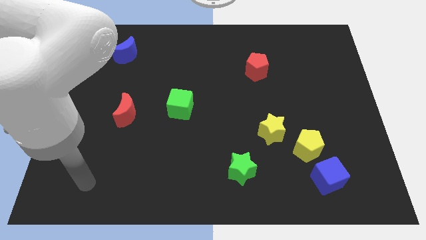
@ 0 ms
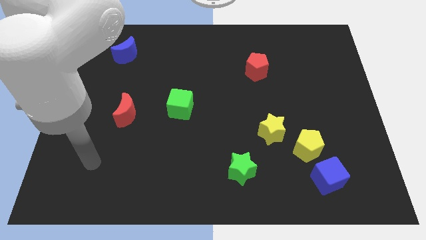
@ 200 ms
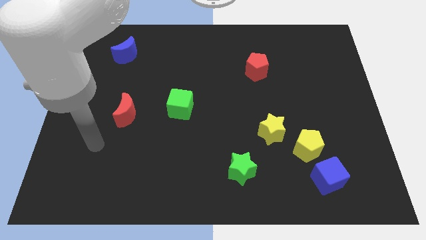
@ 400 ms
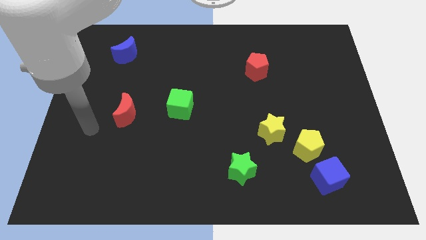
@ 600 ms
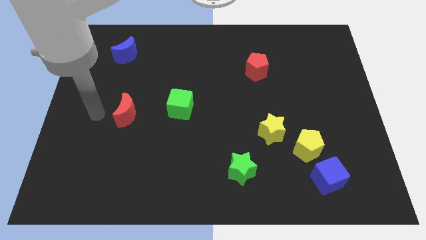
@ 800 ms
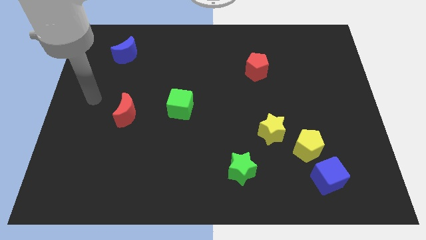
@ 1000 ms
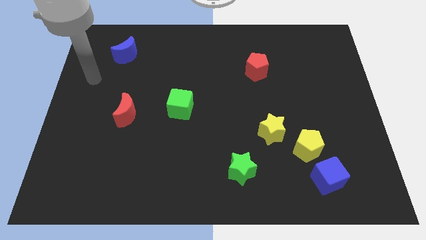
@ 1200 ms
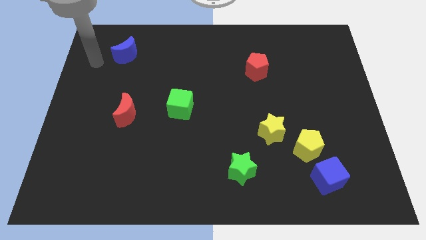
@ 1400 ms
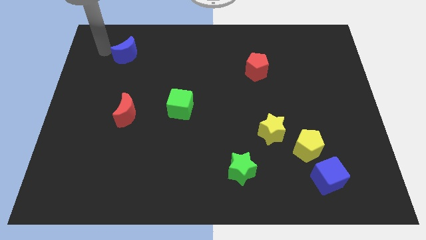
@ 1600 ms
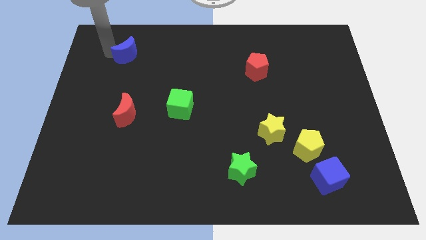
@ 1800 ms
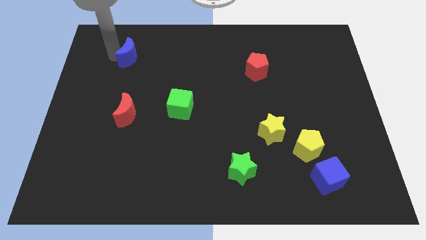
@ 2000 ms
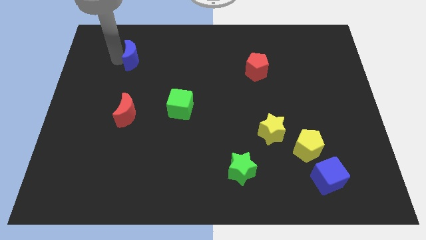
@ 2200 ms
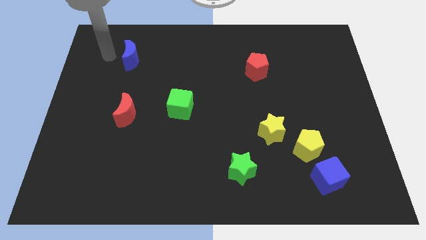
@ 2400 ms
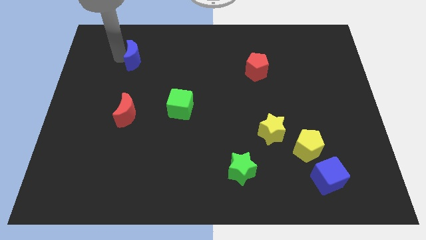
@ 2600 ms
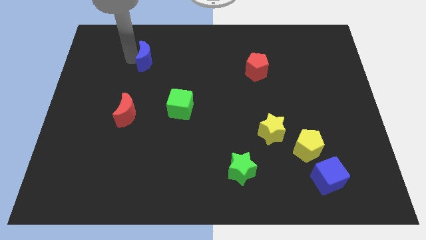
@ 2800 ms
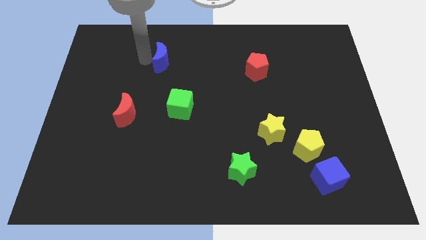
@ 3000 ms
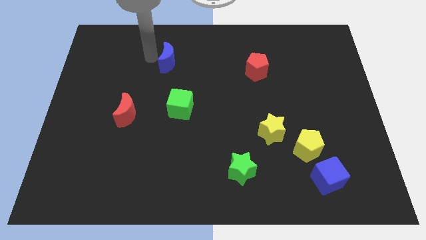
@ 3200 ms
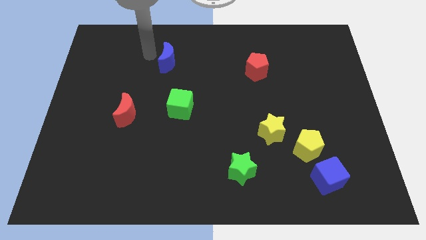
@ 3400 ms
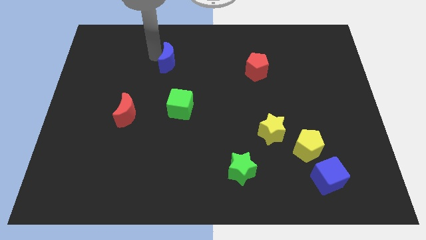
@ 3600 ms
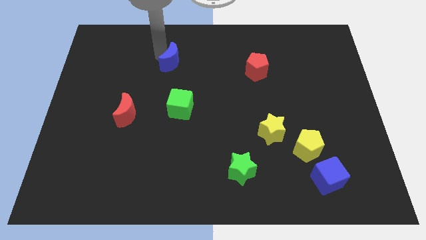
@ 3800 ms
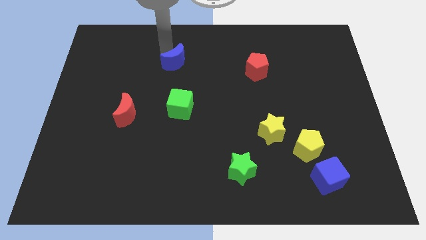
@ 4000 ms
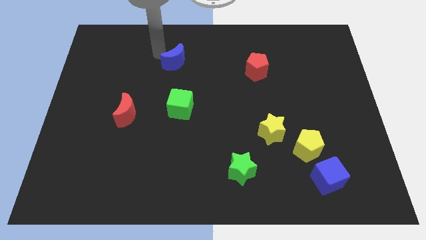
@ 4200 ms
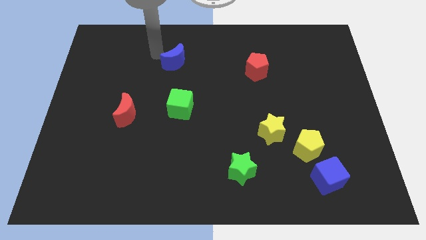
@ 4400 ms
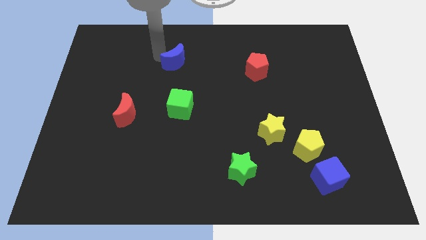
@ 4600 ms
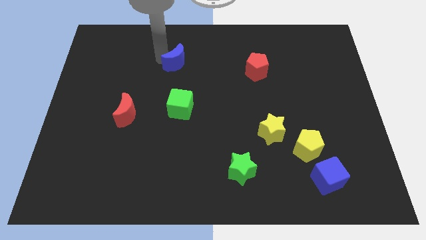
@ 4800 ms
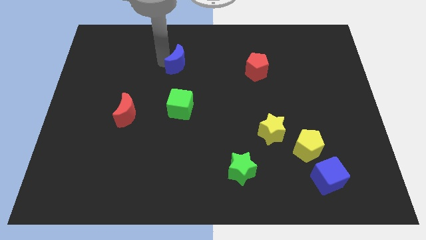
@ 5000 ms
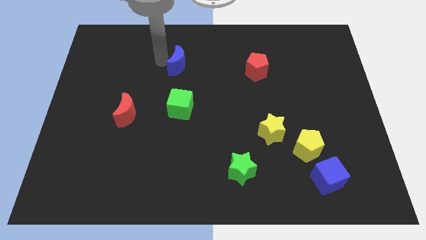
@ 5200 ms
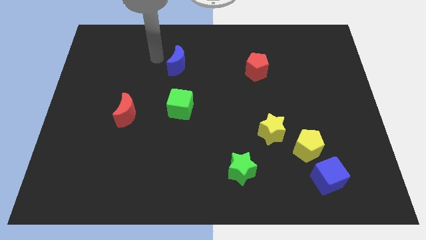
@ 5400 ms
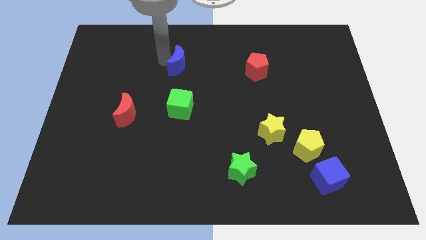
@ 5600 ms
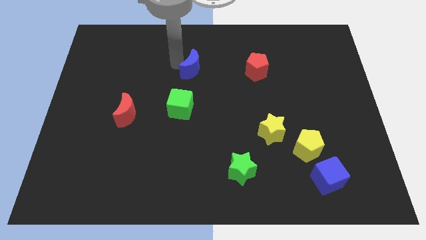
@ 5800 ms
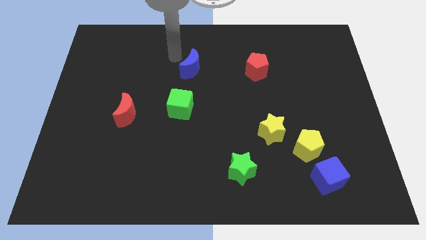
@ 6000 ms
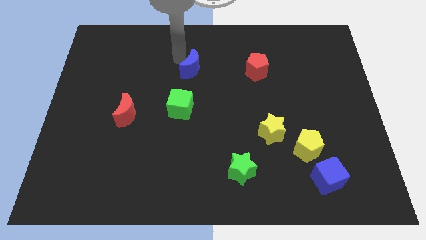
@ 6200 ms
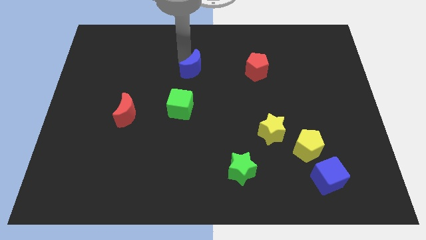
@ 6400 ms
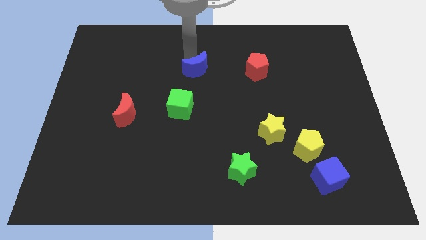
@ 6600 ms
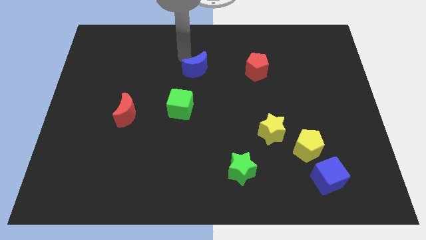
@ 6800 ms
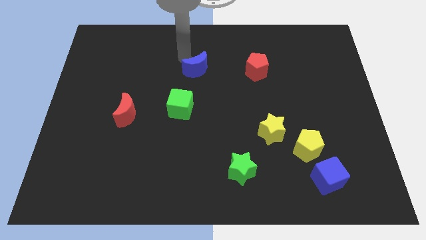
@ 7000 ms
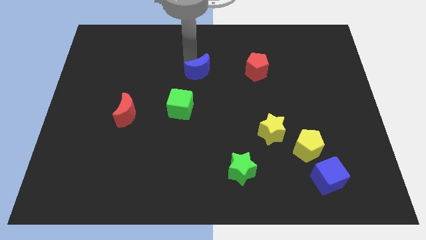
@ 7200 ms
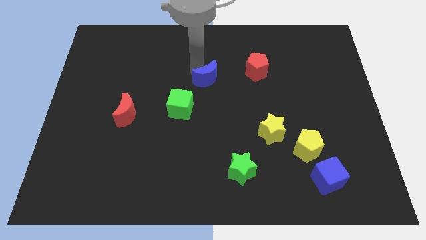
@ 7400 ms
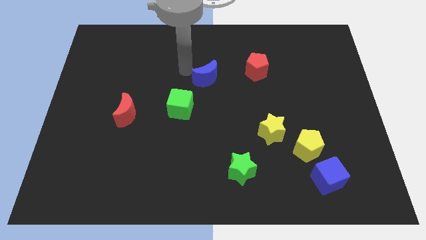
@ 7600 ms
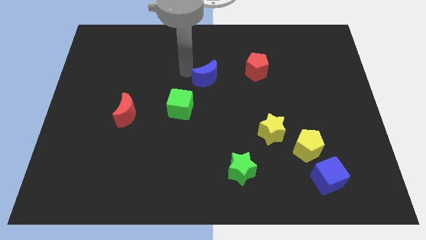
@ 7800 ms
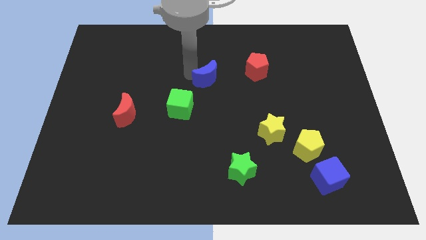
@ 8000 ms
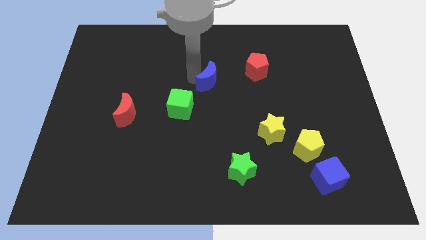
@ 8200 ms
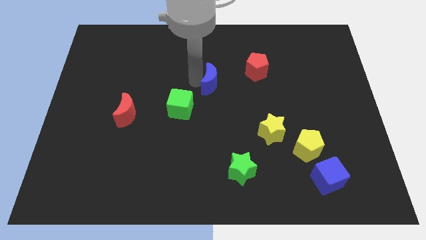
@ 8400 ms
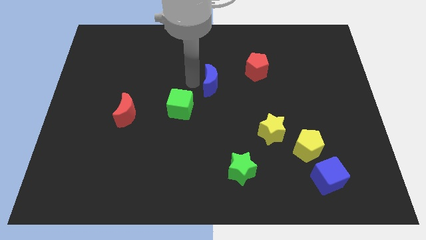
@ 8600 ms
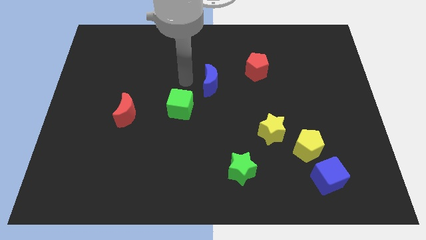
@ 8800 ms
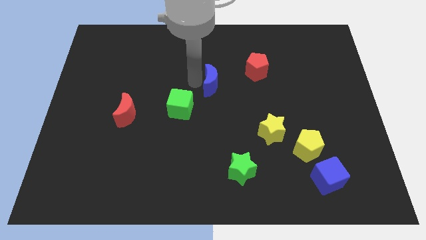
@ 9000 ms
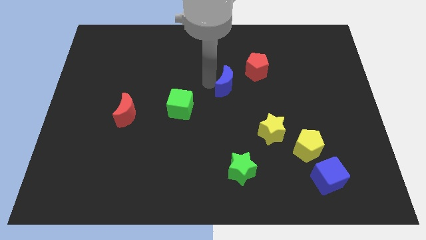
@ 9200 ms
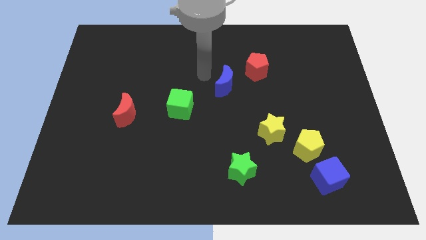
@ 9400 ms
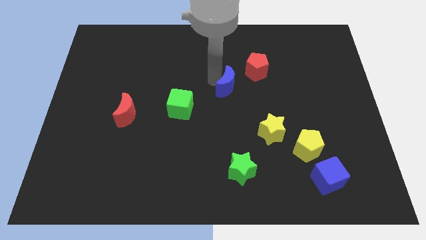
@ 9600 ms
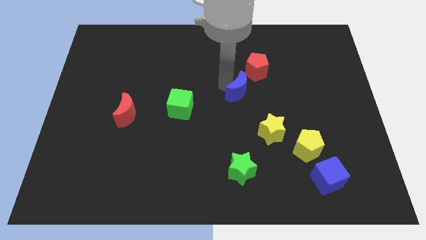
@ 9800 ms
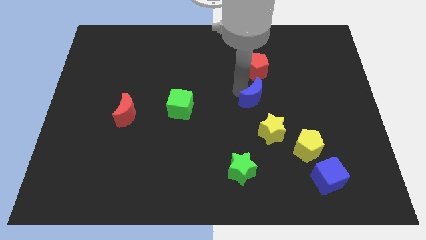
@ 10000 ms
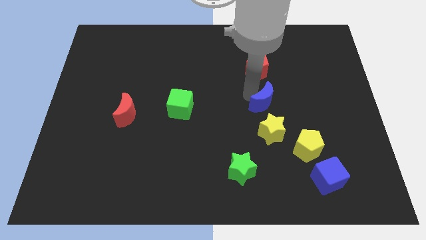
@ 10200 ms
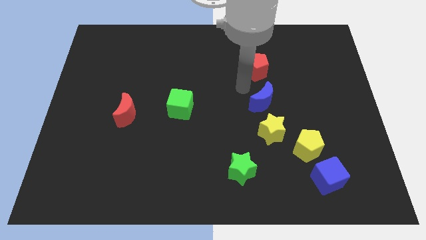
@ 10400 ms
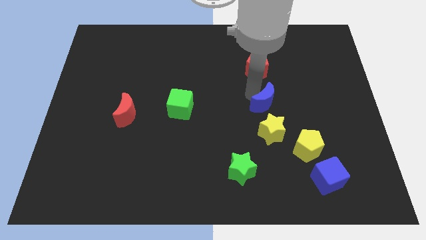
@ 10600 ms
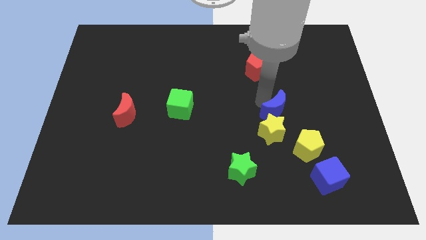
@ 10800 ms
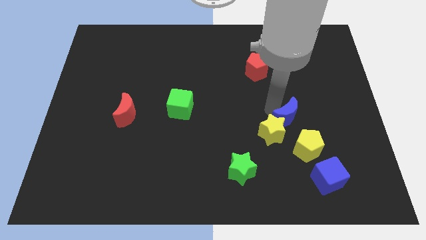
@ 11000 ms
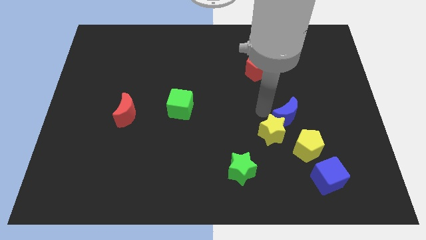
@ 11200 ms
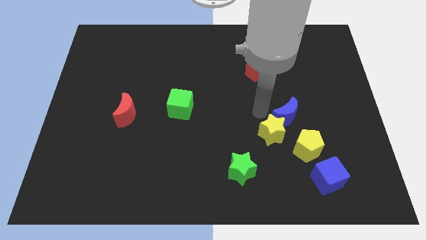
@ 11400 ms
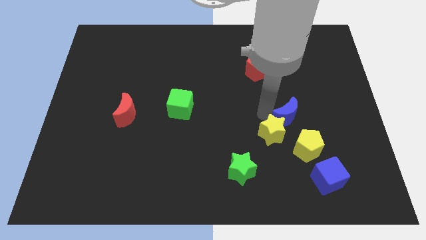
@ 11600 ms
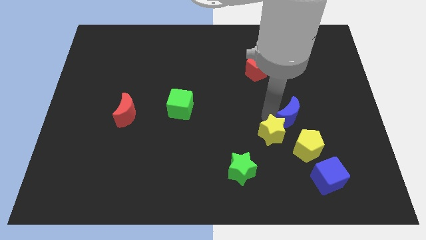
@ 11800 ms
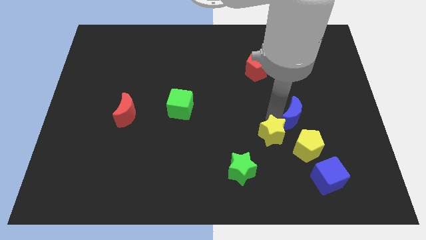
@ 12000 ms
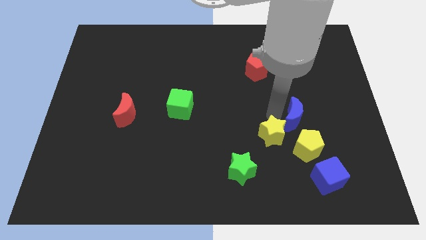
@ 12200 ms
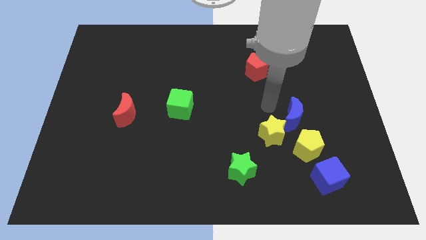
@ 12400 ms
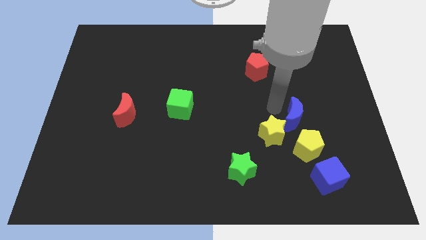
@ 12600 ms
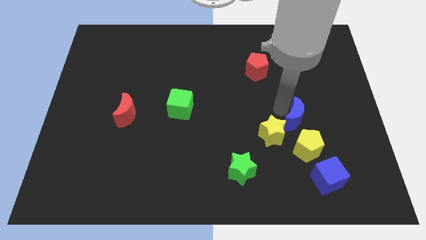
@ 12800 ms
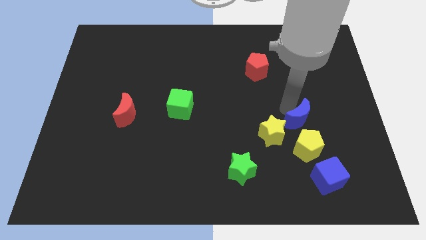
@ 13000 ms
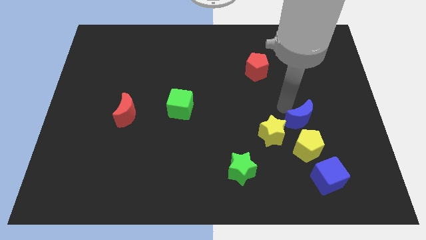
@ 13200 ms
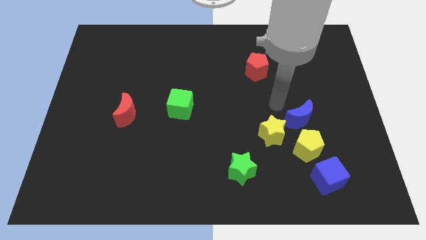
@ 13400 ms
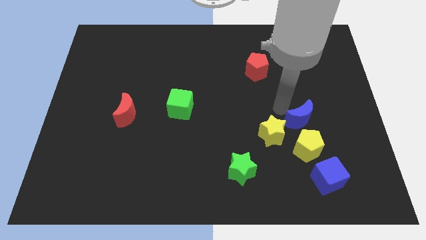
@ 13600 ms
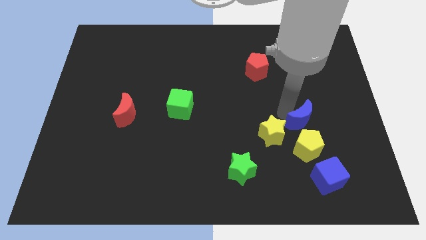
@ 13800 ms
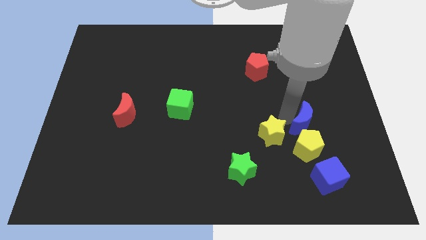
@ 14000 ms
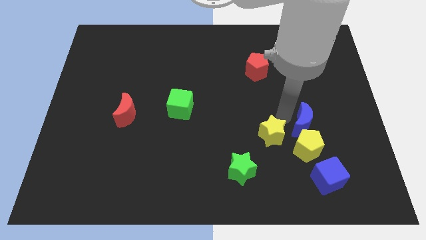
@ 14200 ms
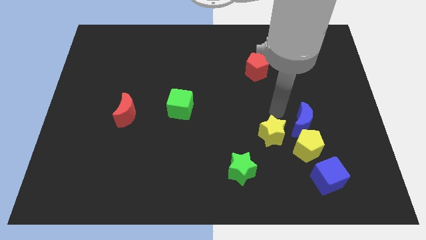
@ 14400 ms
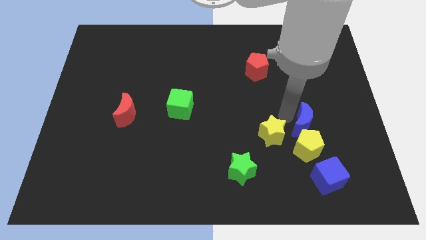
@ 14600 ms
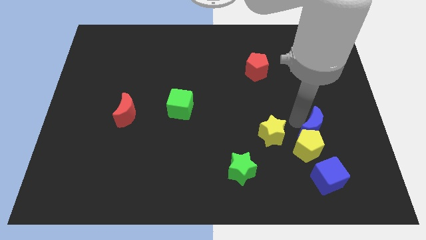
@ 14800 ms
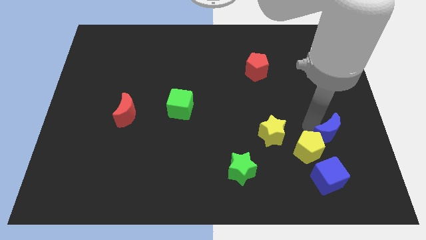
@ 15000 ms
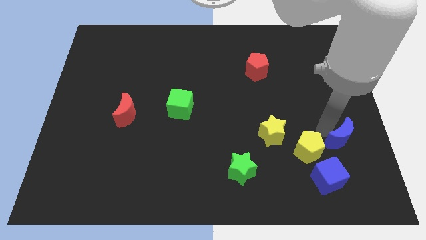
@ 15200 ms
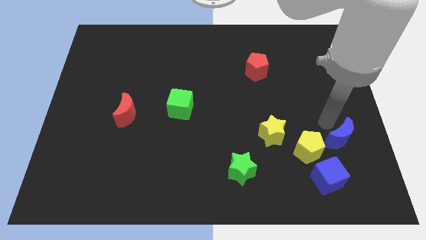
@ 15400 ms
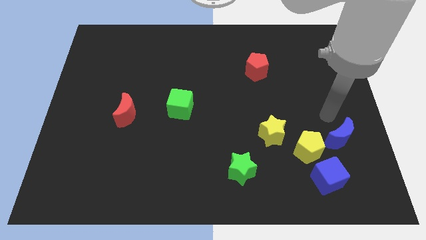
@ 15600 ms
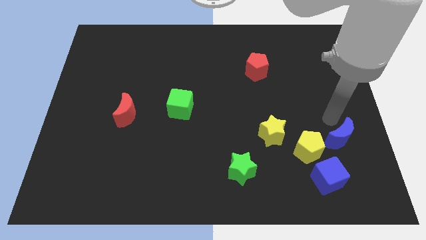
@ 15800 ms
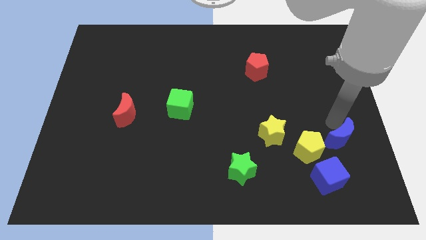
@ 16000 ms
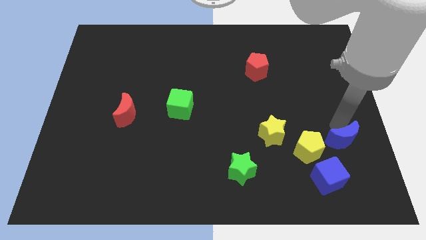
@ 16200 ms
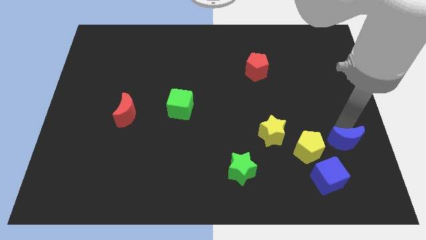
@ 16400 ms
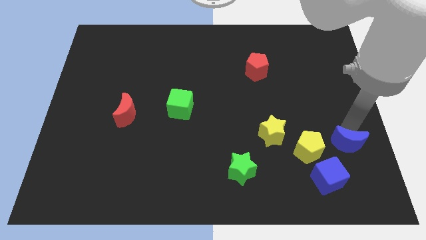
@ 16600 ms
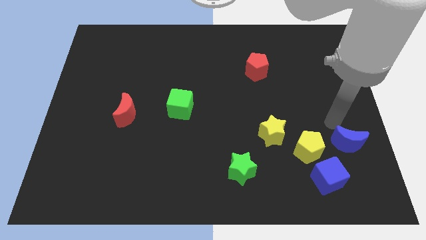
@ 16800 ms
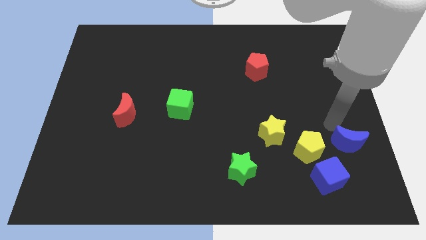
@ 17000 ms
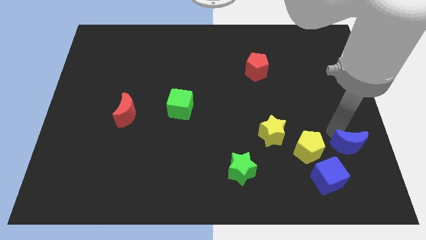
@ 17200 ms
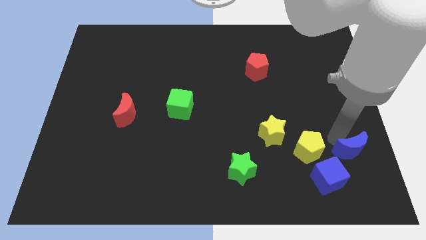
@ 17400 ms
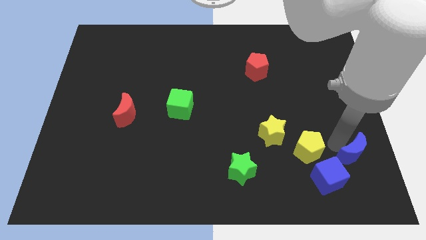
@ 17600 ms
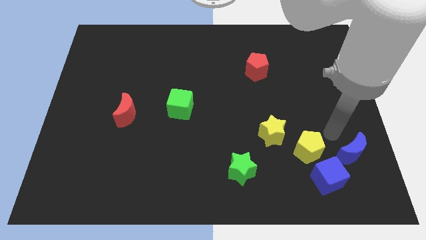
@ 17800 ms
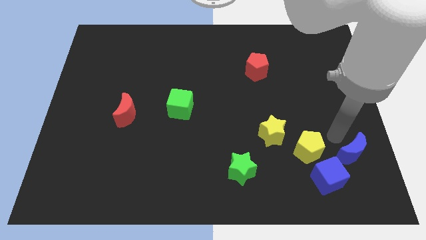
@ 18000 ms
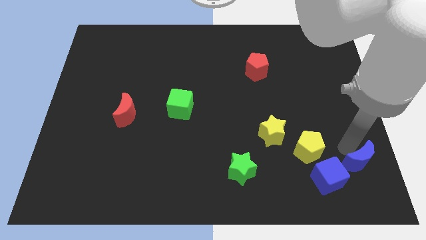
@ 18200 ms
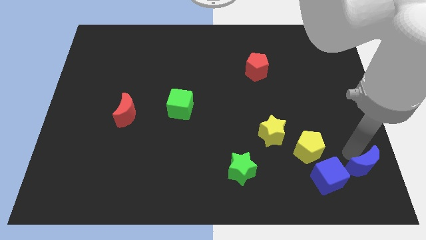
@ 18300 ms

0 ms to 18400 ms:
move the blue moon to the bottom right
